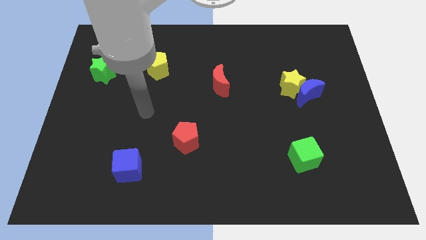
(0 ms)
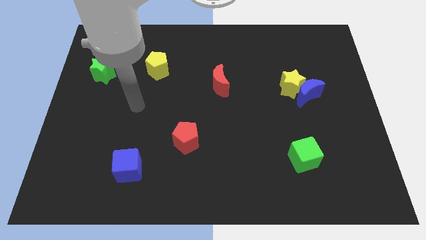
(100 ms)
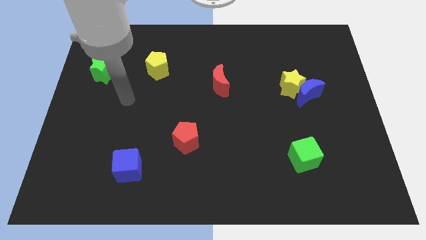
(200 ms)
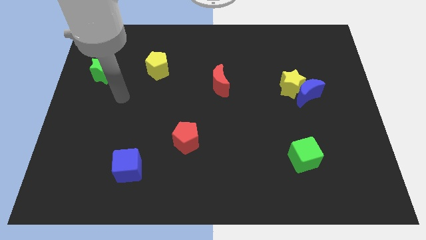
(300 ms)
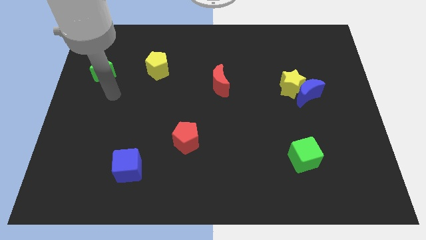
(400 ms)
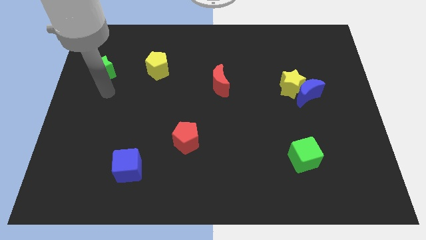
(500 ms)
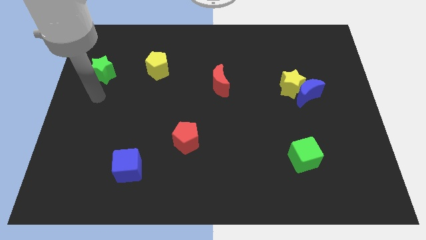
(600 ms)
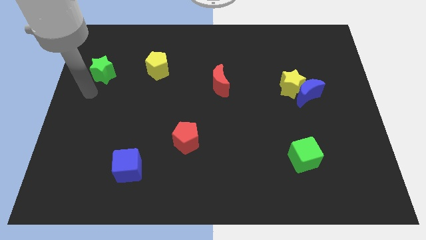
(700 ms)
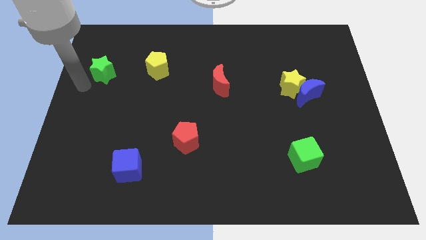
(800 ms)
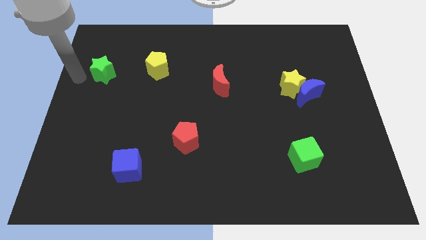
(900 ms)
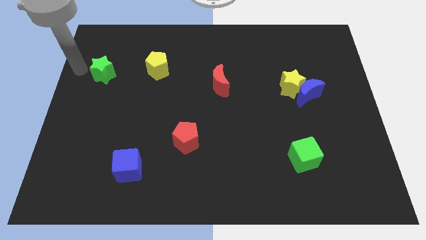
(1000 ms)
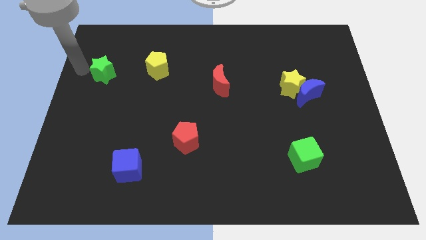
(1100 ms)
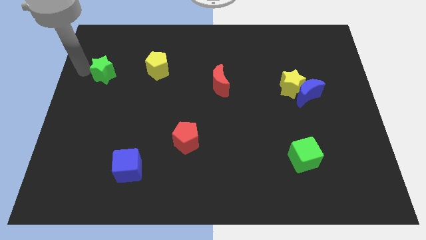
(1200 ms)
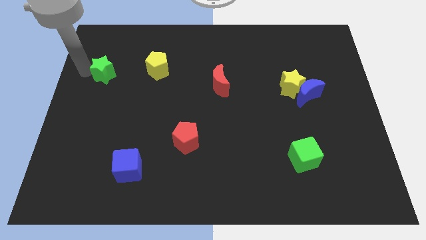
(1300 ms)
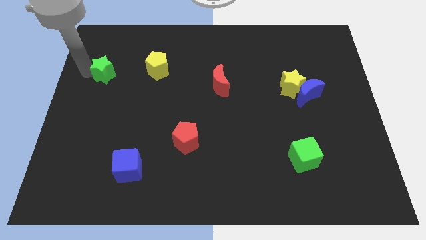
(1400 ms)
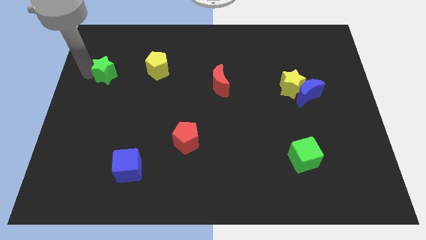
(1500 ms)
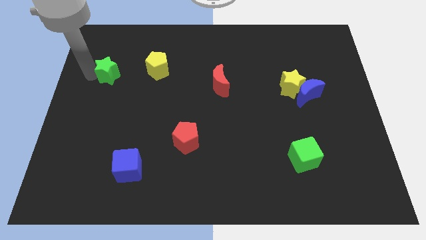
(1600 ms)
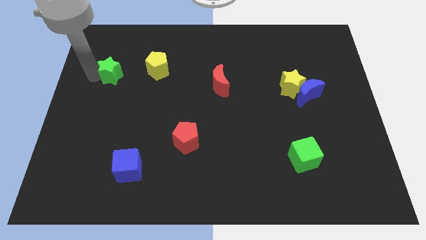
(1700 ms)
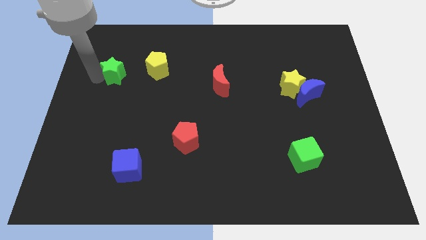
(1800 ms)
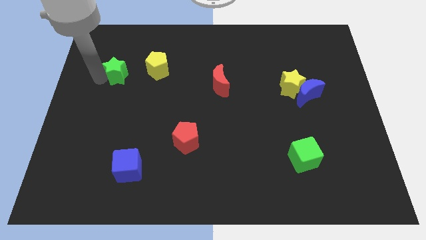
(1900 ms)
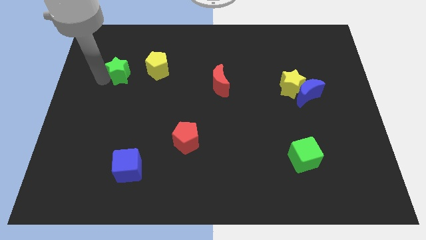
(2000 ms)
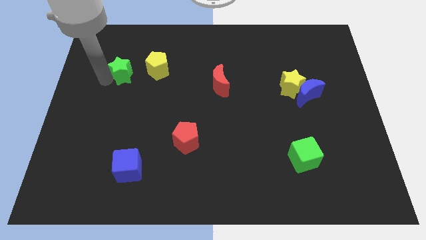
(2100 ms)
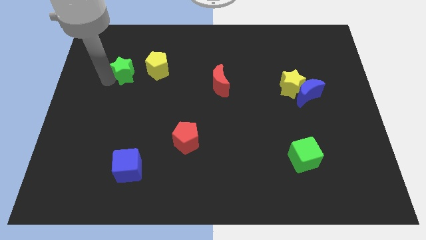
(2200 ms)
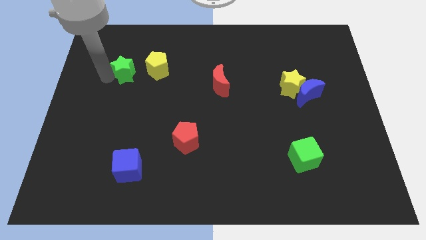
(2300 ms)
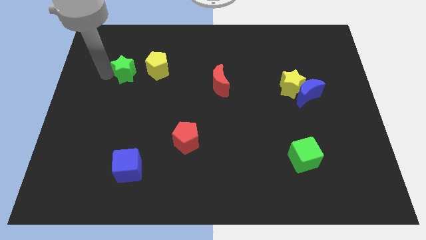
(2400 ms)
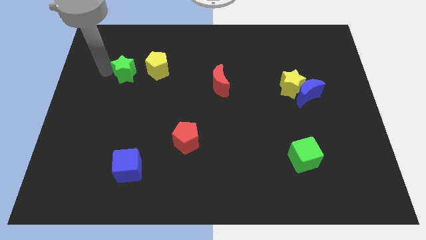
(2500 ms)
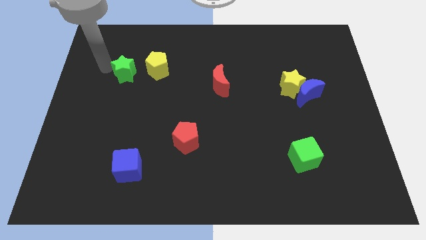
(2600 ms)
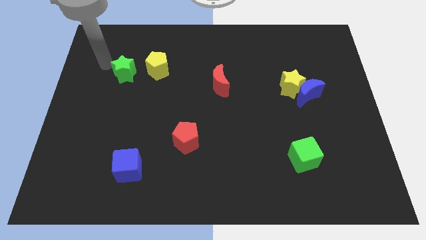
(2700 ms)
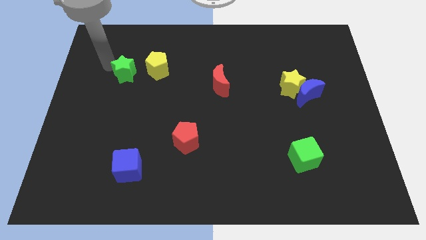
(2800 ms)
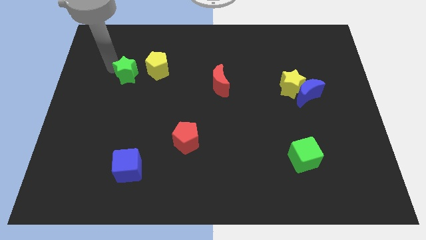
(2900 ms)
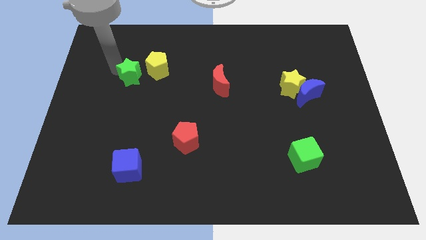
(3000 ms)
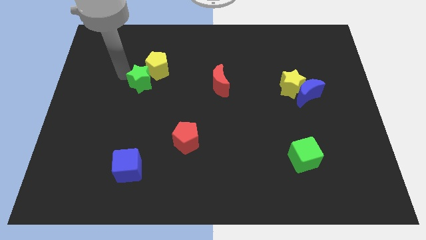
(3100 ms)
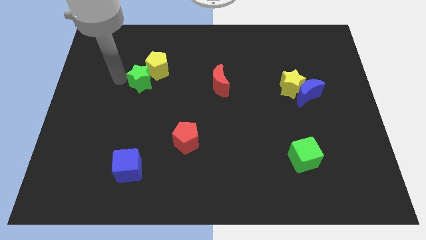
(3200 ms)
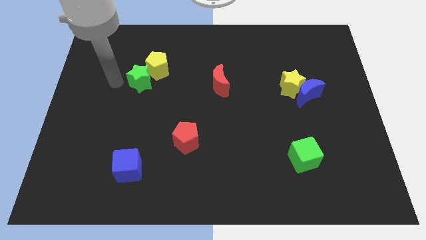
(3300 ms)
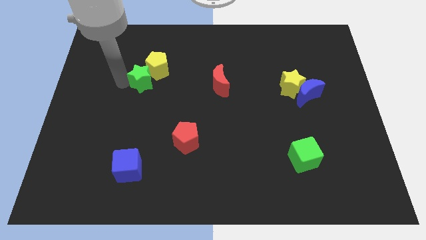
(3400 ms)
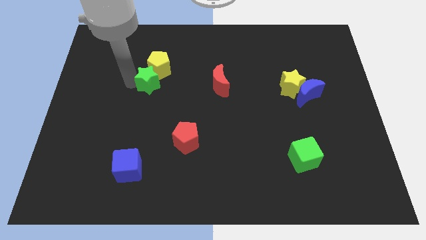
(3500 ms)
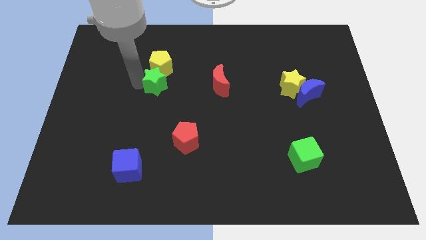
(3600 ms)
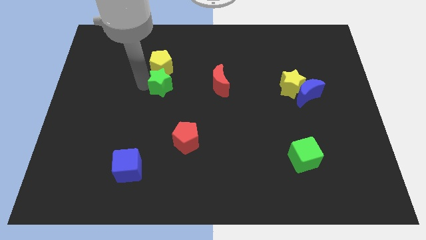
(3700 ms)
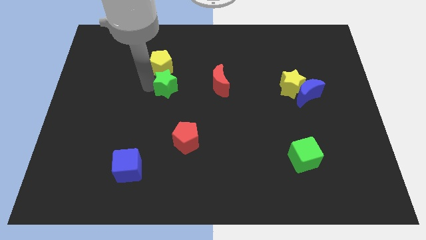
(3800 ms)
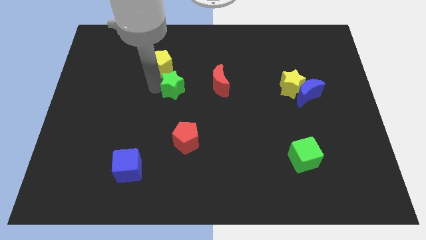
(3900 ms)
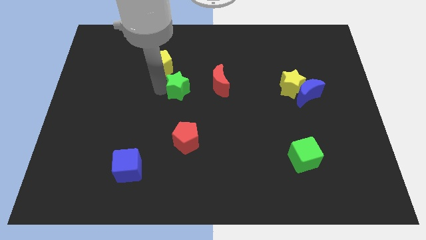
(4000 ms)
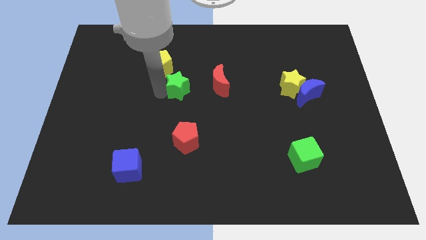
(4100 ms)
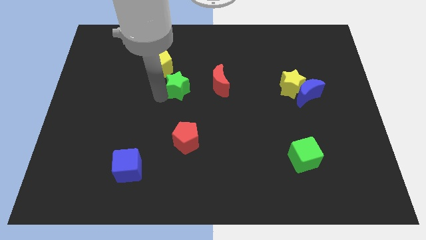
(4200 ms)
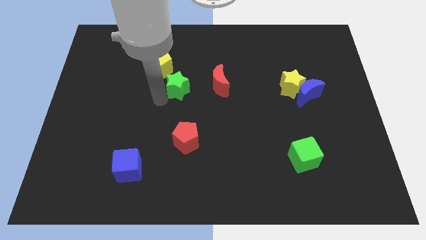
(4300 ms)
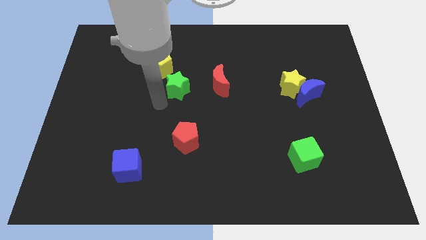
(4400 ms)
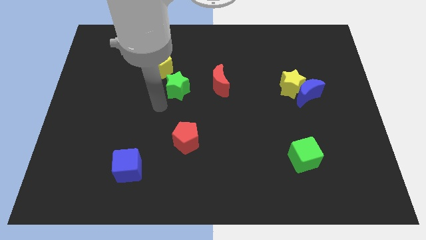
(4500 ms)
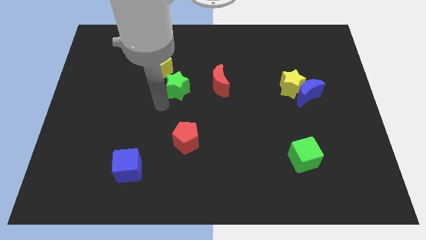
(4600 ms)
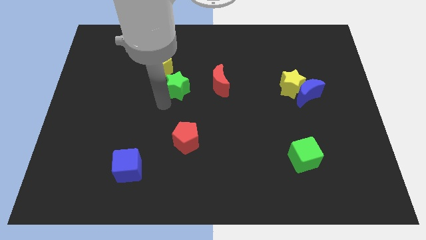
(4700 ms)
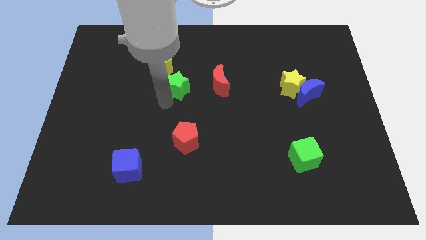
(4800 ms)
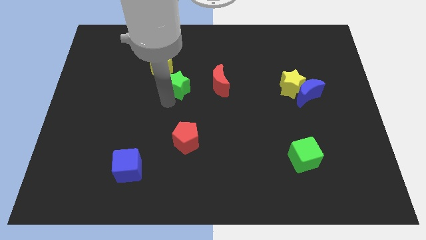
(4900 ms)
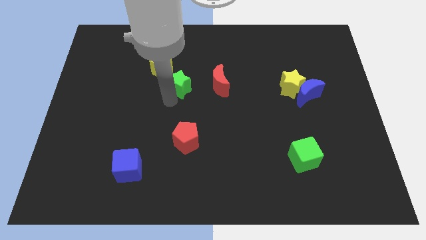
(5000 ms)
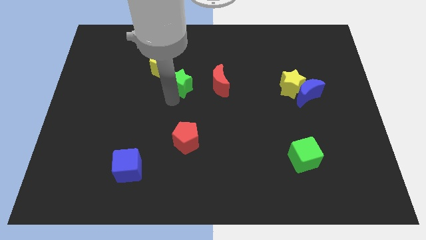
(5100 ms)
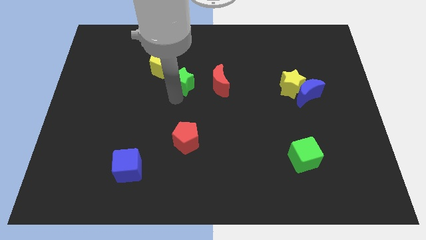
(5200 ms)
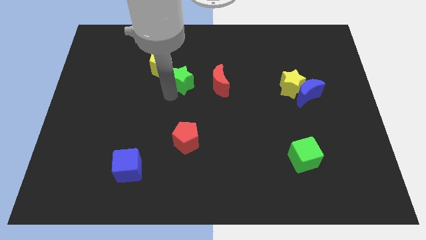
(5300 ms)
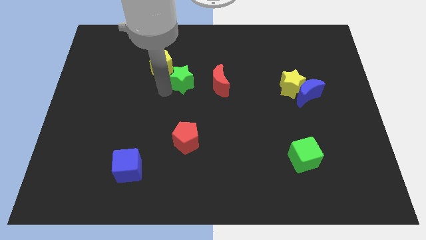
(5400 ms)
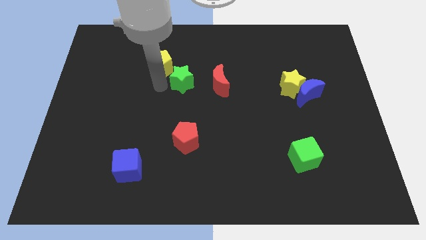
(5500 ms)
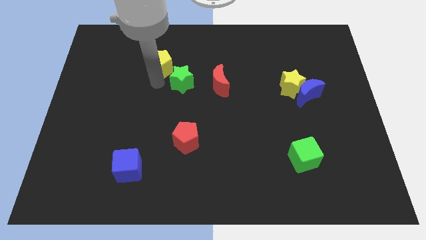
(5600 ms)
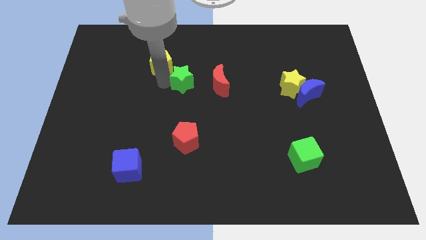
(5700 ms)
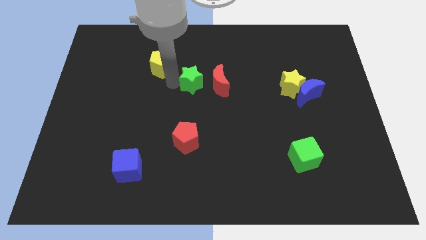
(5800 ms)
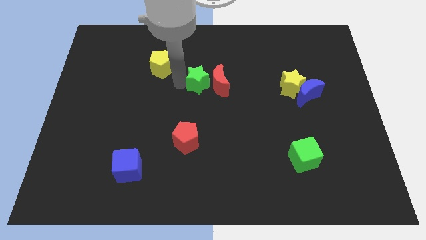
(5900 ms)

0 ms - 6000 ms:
slide the green star next to the red moon

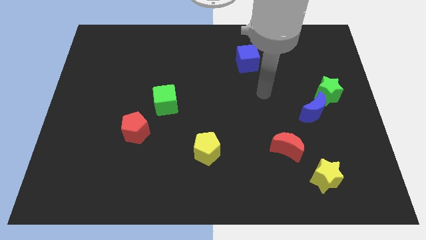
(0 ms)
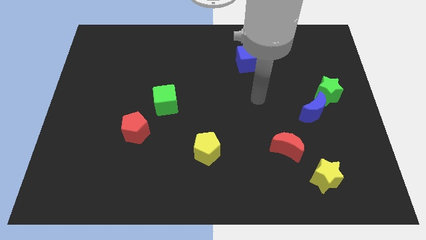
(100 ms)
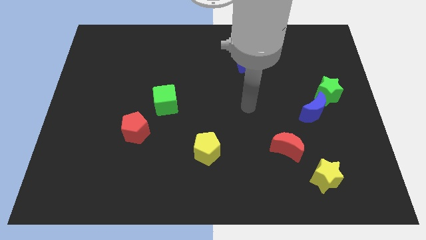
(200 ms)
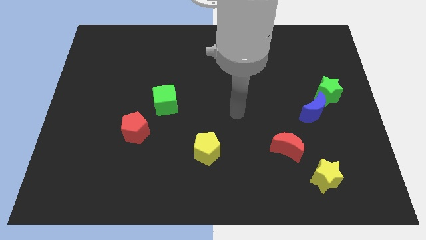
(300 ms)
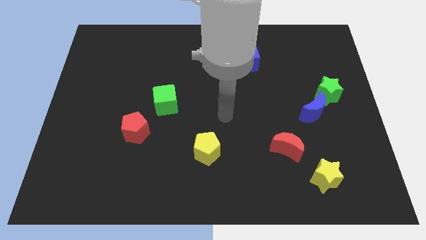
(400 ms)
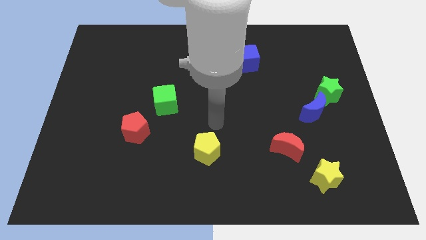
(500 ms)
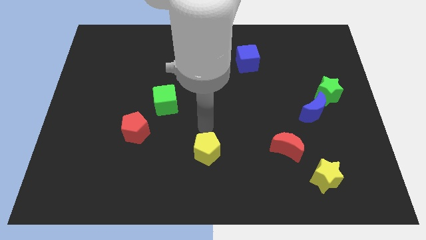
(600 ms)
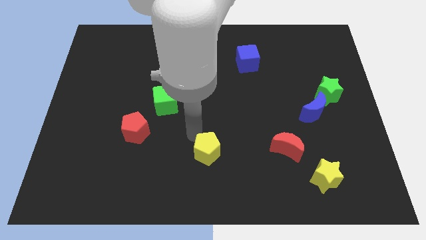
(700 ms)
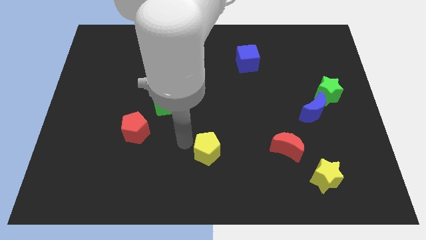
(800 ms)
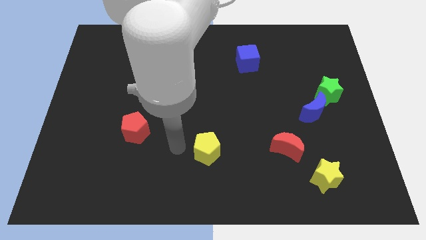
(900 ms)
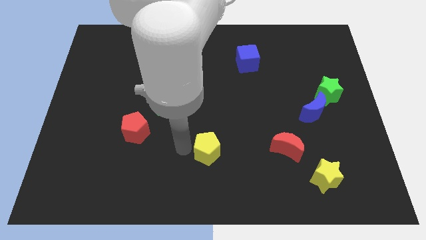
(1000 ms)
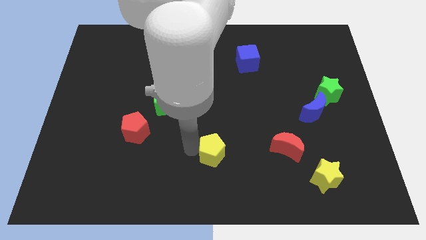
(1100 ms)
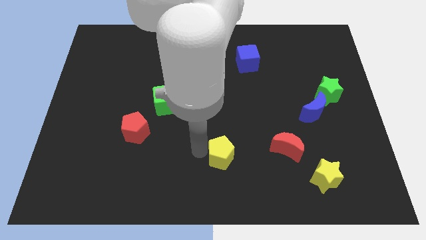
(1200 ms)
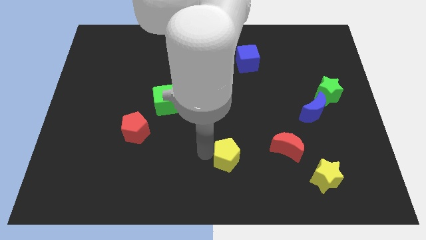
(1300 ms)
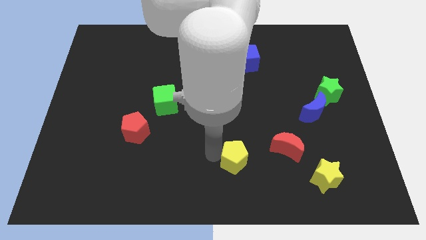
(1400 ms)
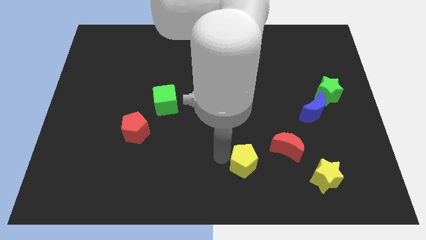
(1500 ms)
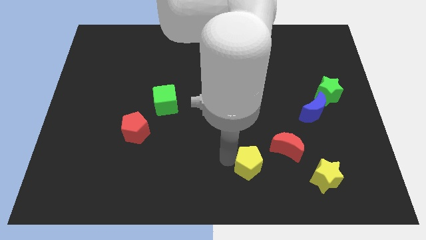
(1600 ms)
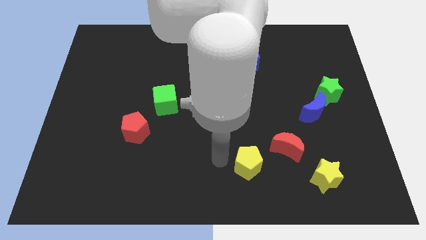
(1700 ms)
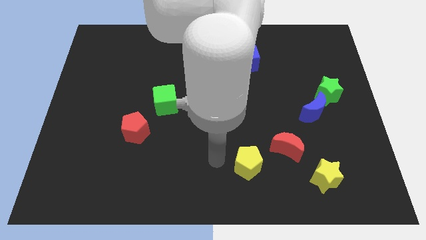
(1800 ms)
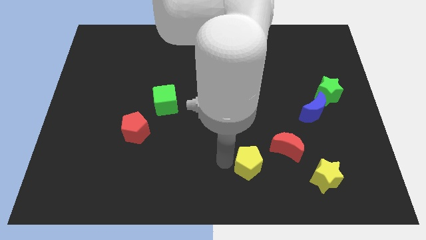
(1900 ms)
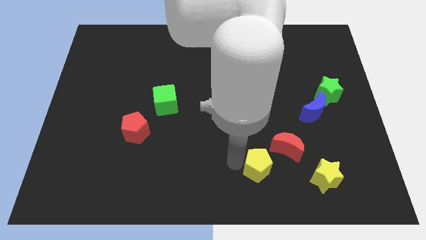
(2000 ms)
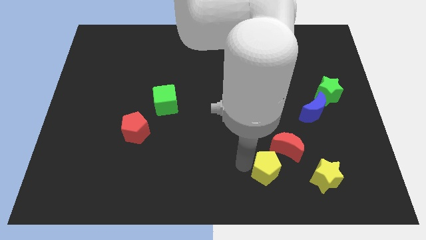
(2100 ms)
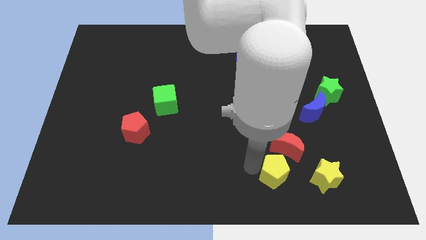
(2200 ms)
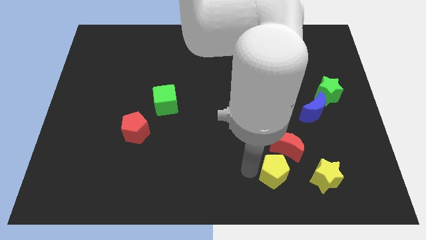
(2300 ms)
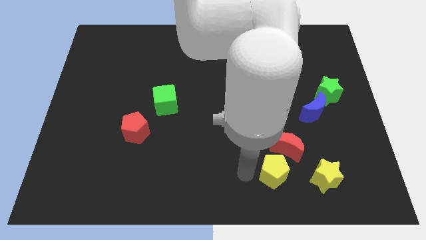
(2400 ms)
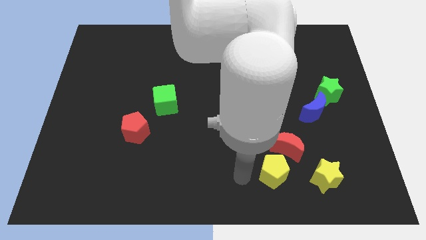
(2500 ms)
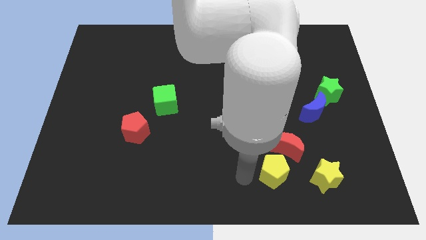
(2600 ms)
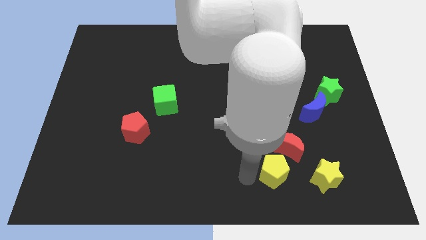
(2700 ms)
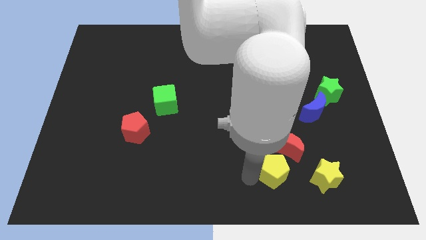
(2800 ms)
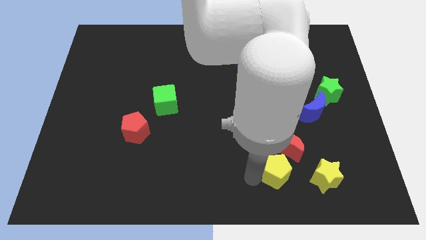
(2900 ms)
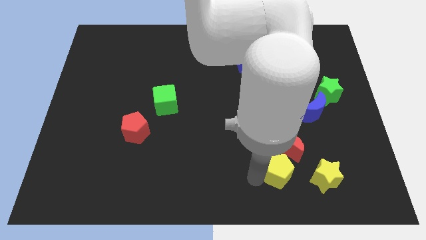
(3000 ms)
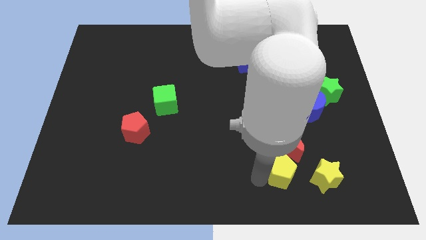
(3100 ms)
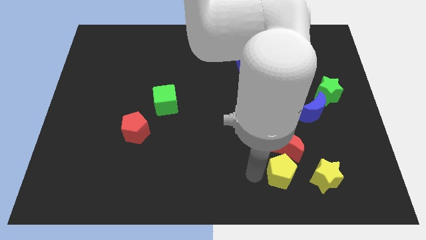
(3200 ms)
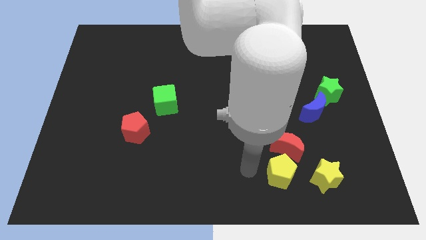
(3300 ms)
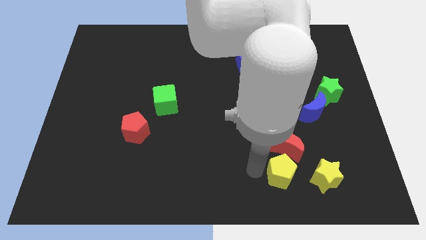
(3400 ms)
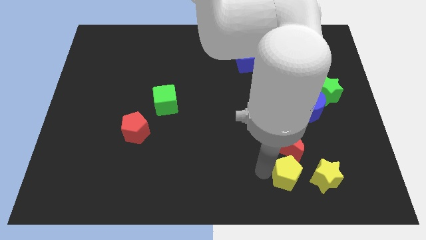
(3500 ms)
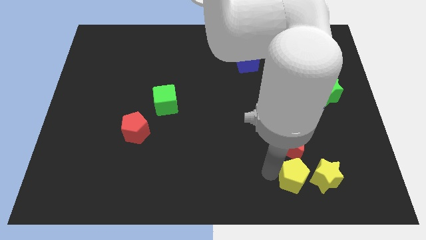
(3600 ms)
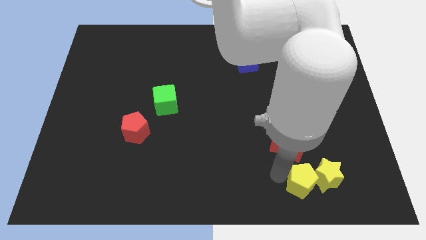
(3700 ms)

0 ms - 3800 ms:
push the yellow pentagon next to the yellow star
